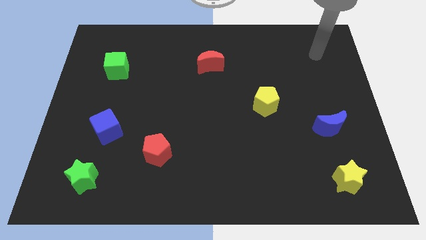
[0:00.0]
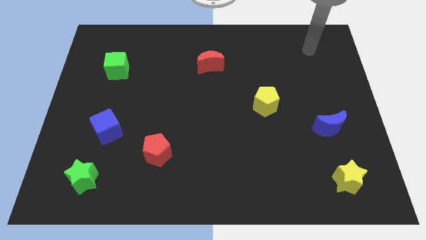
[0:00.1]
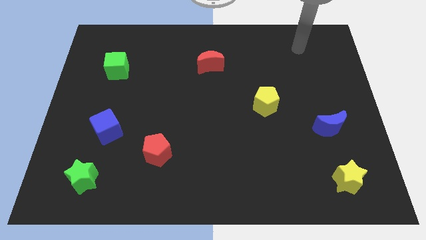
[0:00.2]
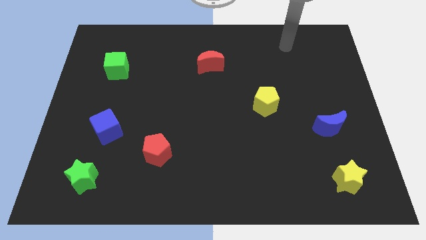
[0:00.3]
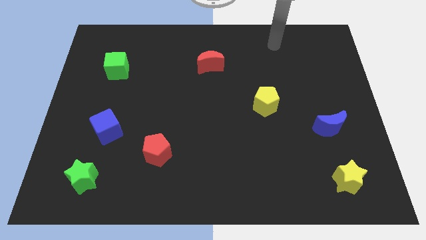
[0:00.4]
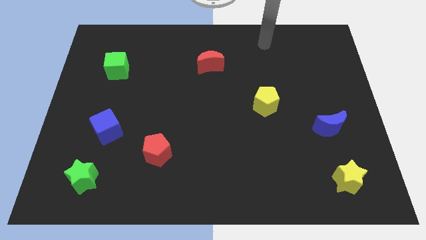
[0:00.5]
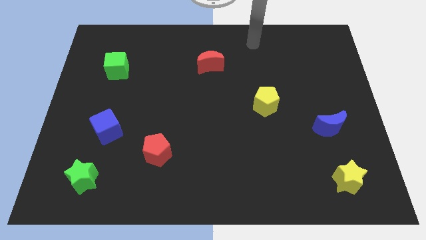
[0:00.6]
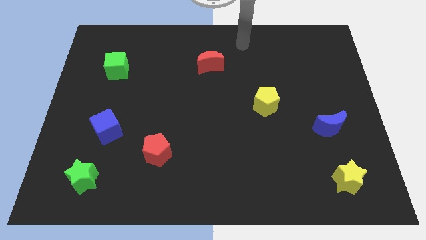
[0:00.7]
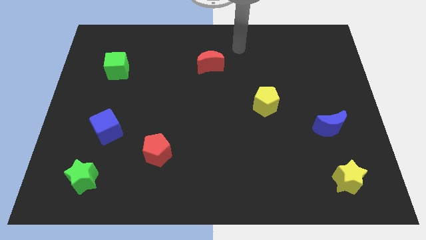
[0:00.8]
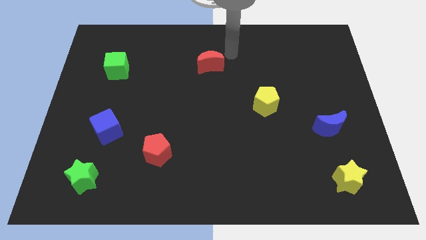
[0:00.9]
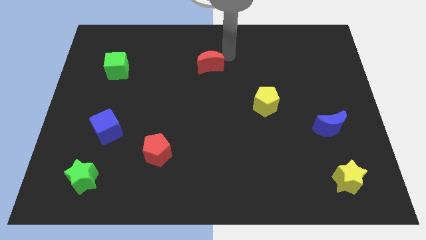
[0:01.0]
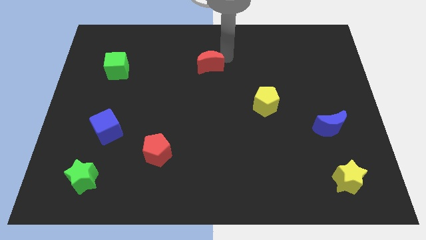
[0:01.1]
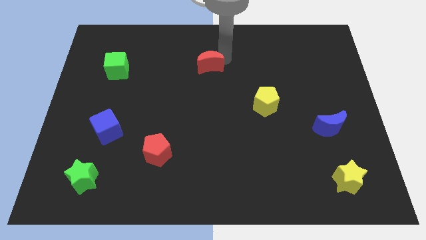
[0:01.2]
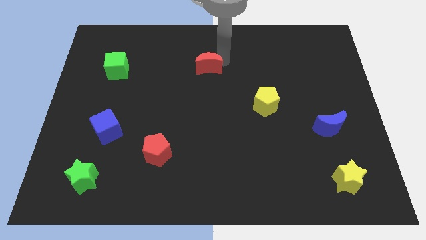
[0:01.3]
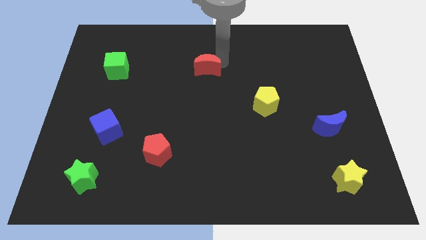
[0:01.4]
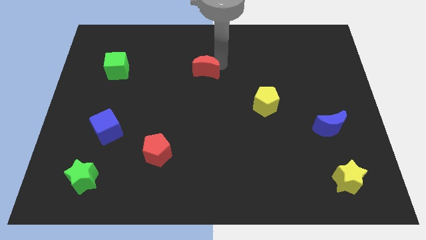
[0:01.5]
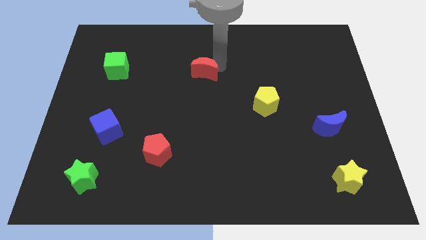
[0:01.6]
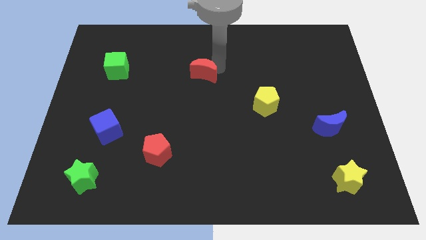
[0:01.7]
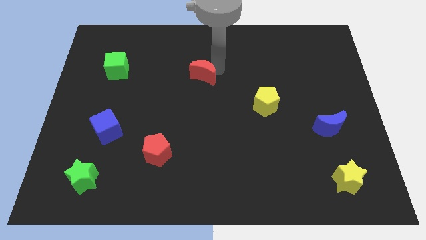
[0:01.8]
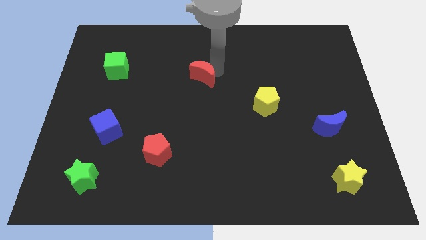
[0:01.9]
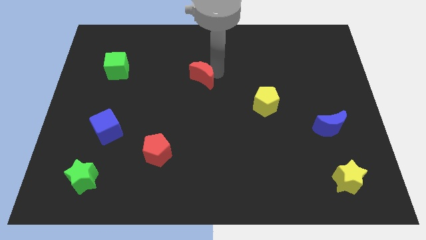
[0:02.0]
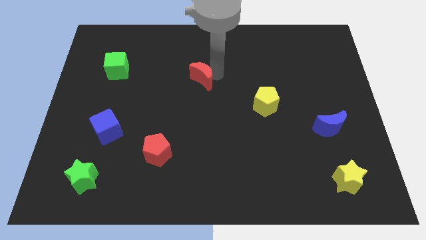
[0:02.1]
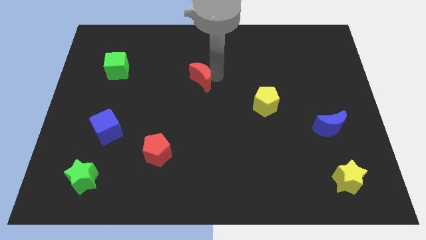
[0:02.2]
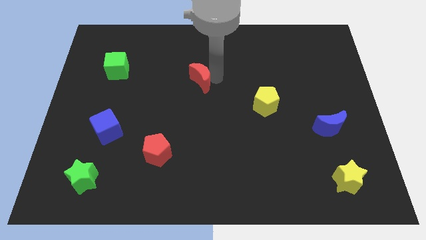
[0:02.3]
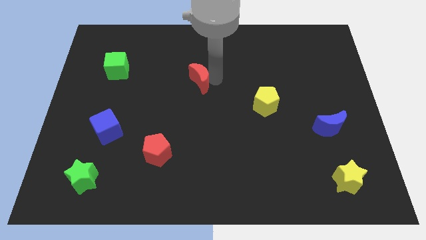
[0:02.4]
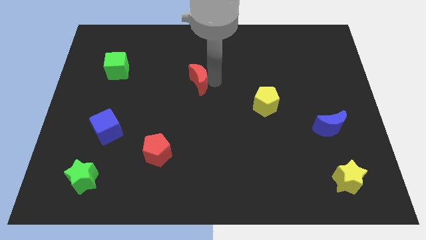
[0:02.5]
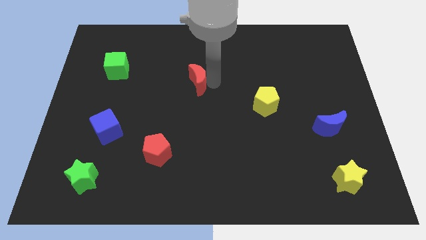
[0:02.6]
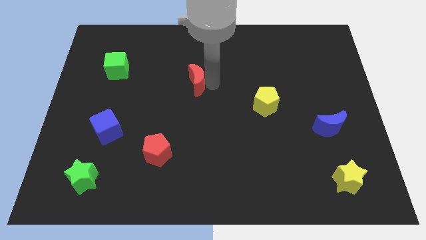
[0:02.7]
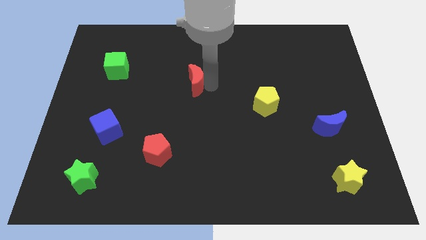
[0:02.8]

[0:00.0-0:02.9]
slightly move the red moon downwards and left diagonally

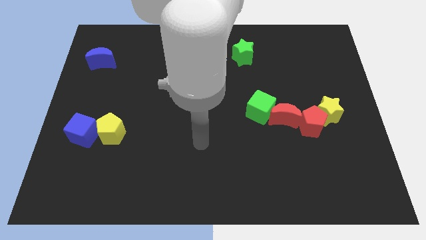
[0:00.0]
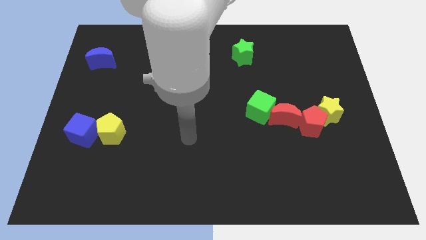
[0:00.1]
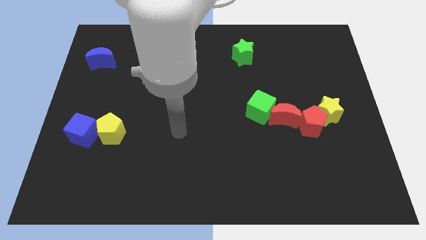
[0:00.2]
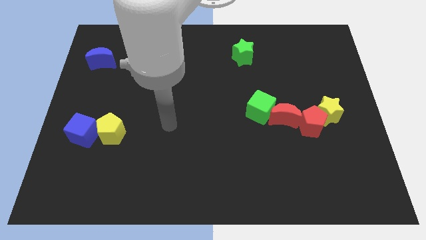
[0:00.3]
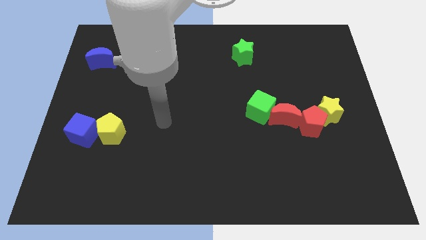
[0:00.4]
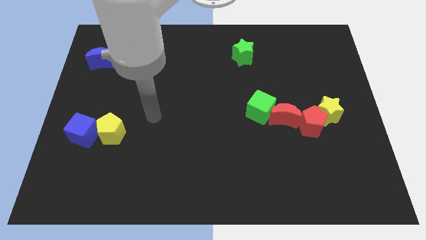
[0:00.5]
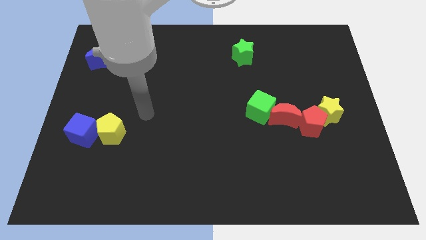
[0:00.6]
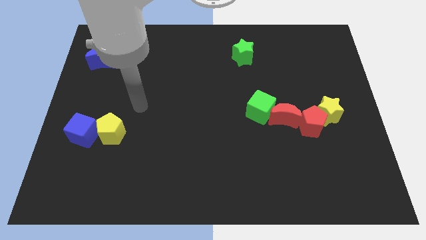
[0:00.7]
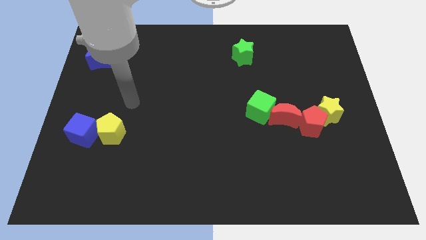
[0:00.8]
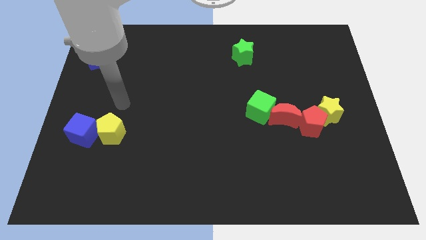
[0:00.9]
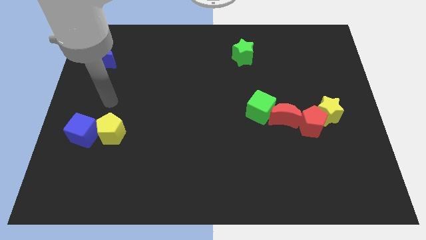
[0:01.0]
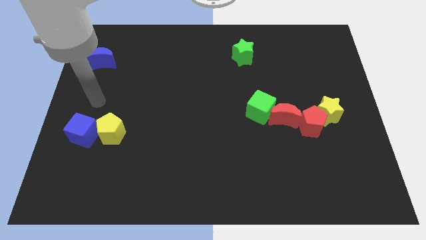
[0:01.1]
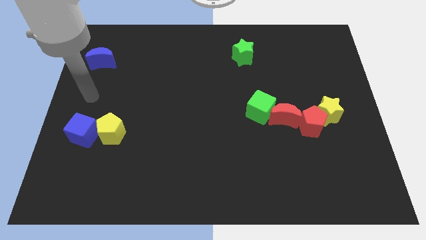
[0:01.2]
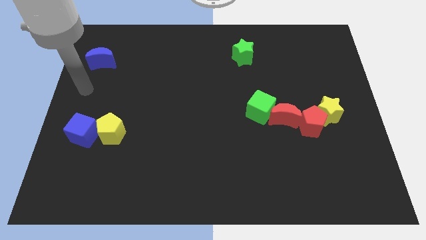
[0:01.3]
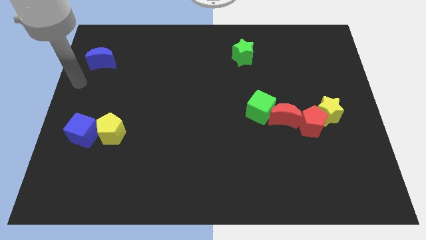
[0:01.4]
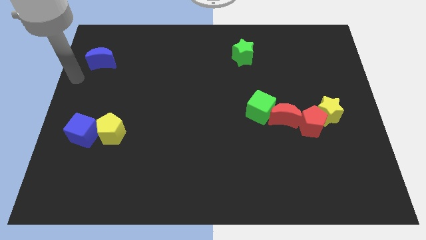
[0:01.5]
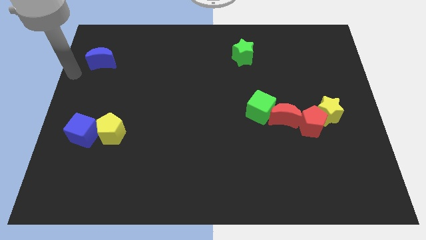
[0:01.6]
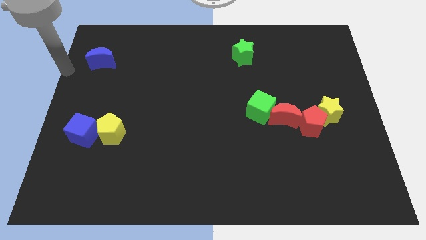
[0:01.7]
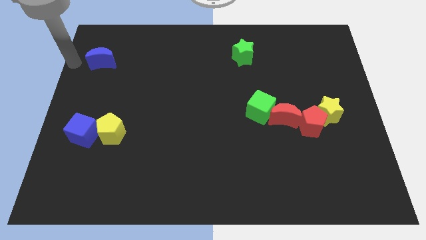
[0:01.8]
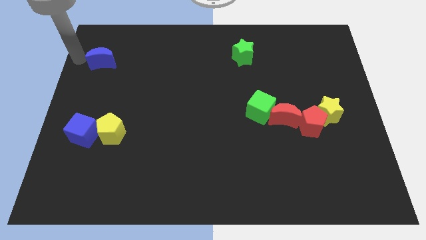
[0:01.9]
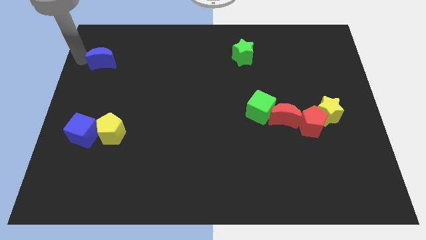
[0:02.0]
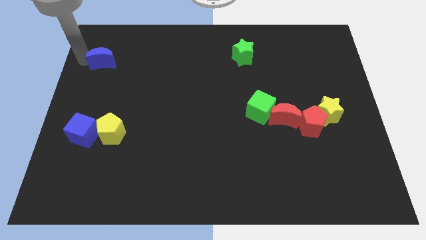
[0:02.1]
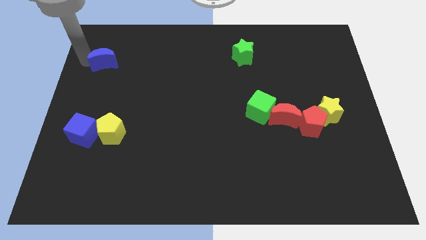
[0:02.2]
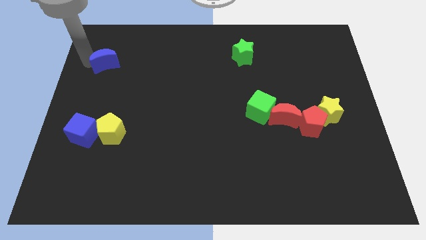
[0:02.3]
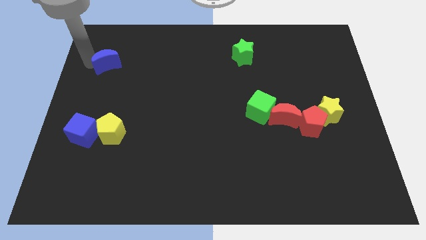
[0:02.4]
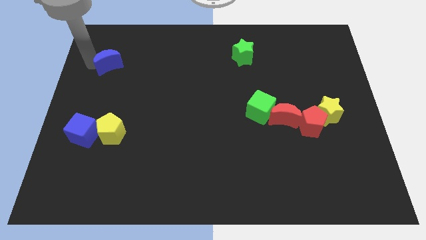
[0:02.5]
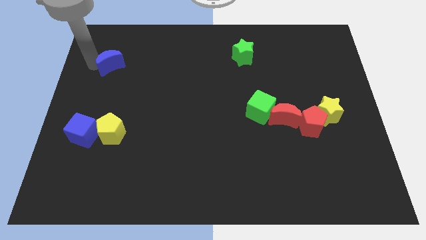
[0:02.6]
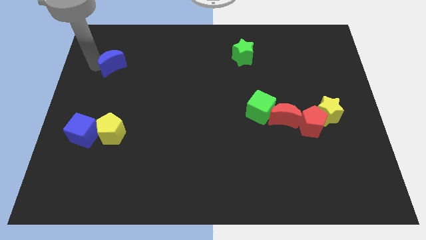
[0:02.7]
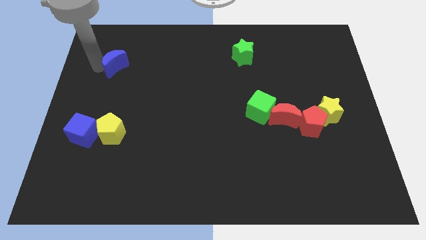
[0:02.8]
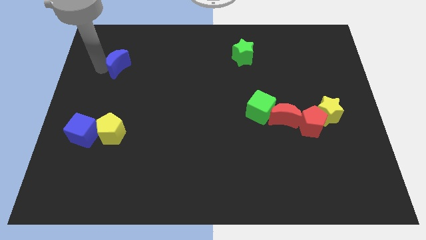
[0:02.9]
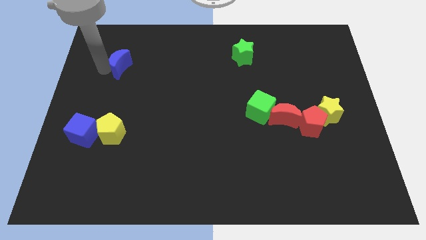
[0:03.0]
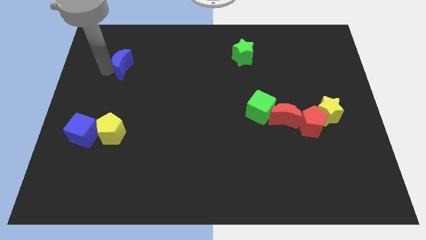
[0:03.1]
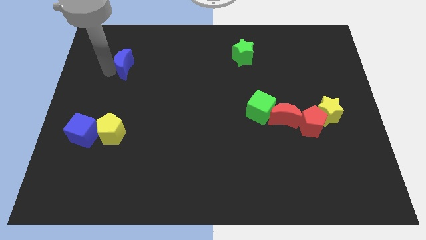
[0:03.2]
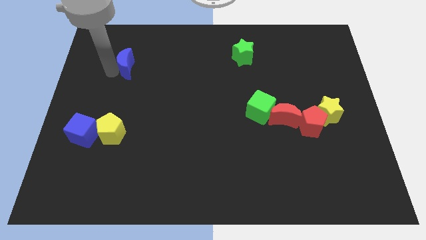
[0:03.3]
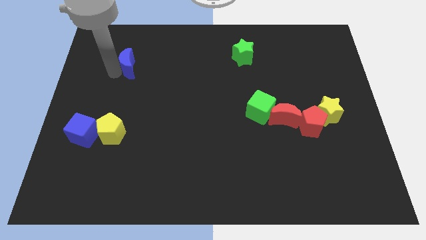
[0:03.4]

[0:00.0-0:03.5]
slightly push the blue moon right

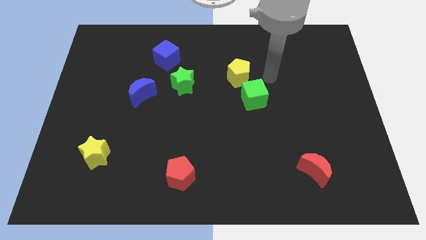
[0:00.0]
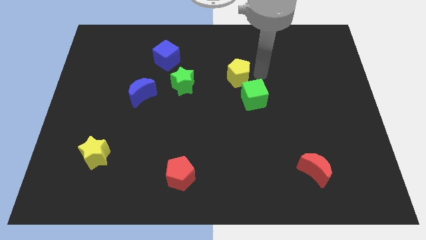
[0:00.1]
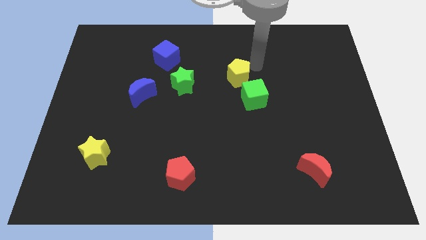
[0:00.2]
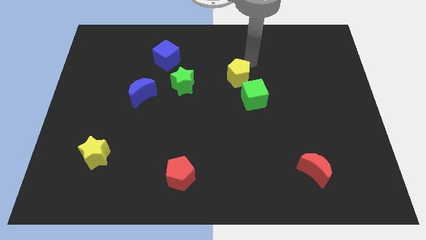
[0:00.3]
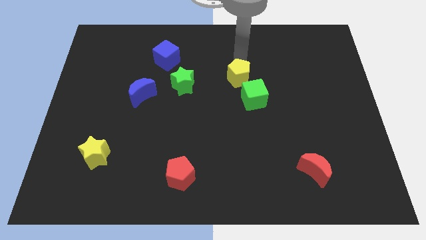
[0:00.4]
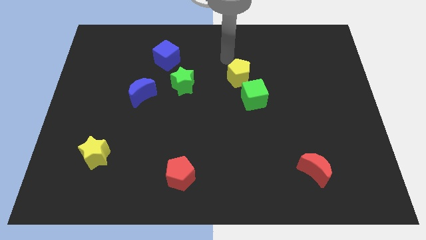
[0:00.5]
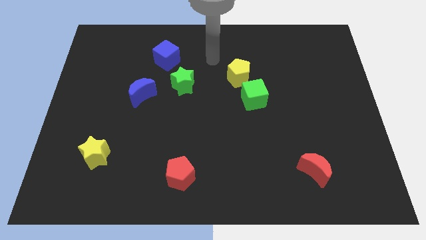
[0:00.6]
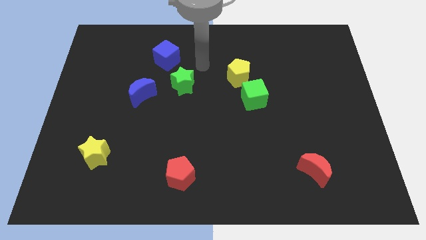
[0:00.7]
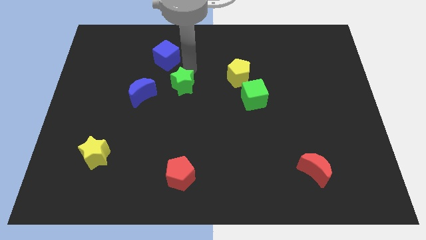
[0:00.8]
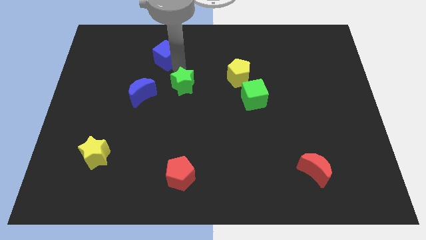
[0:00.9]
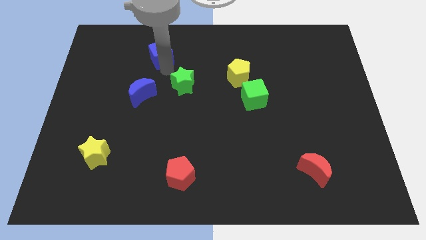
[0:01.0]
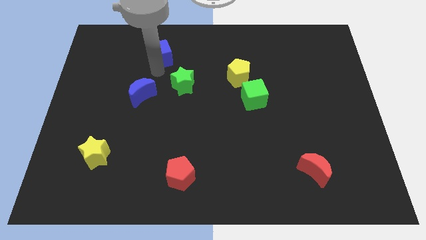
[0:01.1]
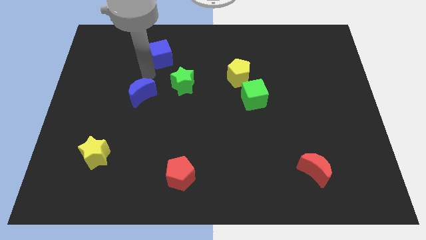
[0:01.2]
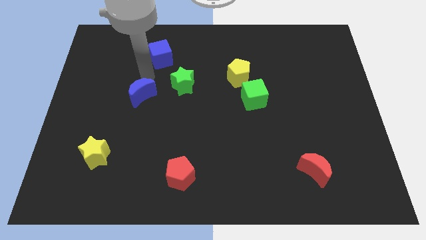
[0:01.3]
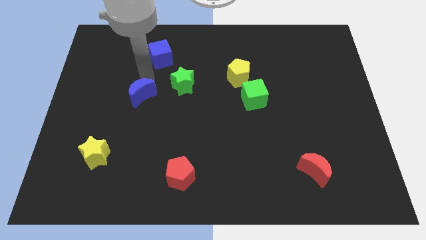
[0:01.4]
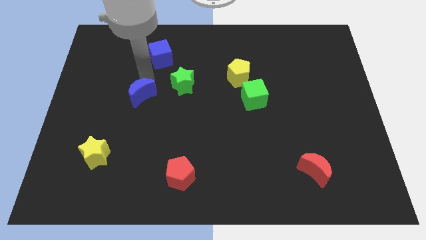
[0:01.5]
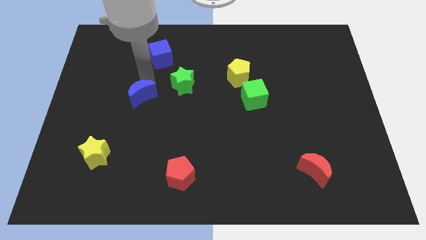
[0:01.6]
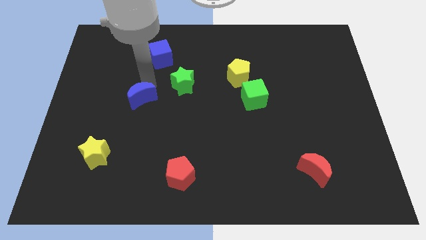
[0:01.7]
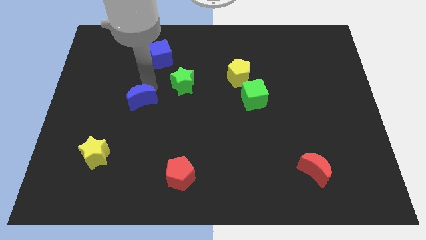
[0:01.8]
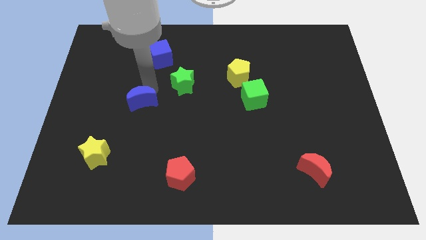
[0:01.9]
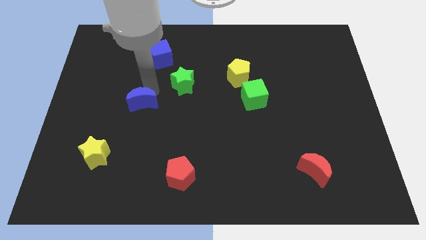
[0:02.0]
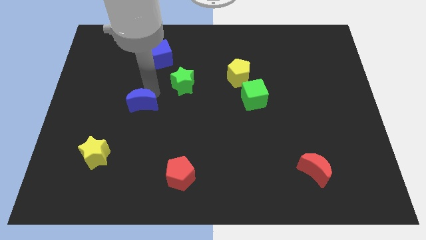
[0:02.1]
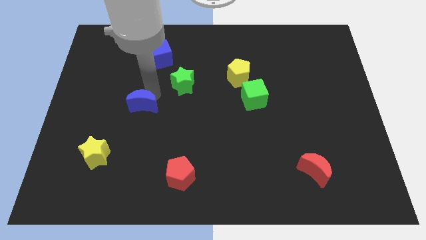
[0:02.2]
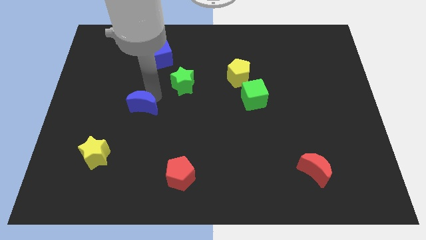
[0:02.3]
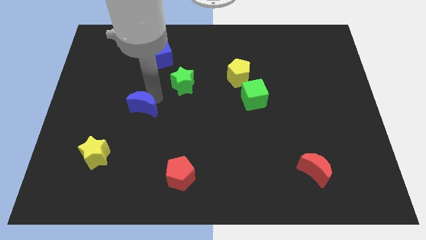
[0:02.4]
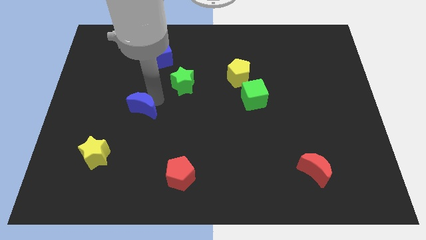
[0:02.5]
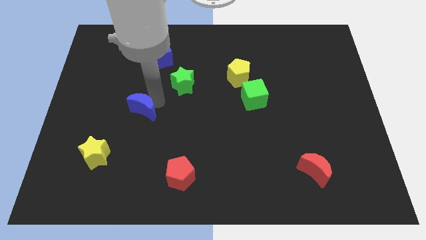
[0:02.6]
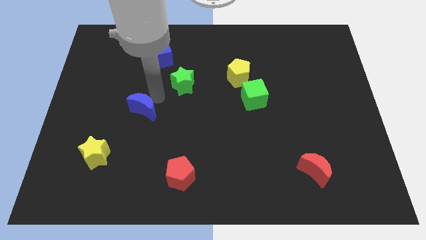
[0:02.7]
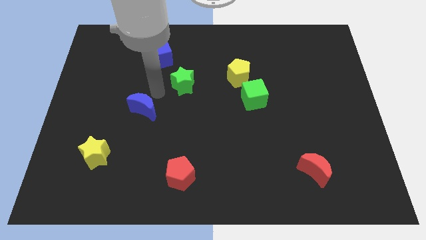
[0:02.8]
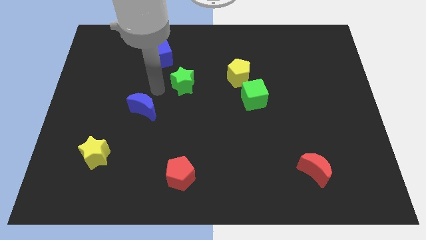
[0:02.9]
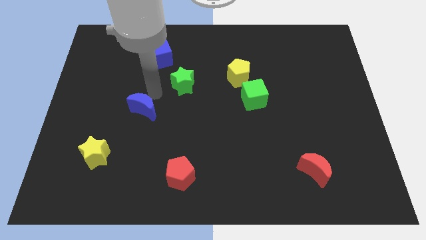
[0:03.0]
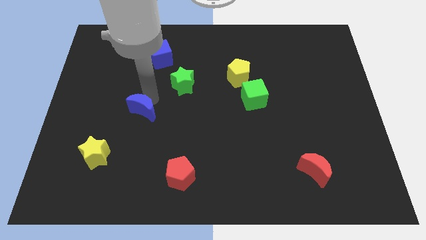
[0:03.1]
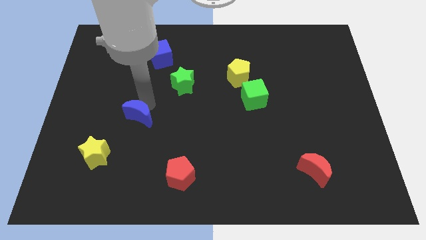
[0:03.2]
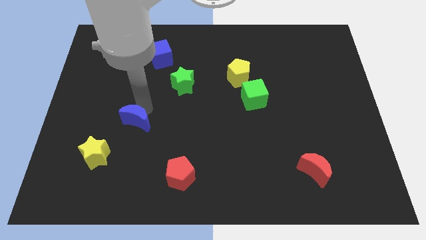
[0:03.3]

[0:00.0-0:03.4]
move the blue moon a bit down
